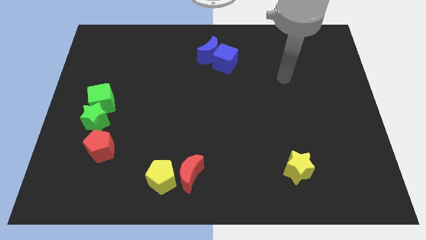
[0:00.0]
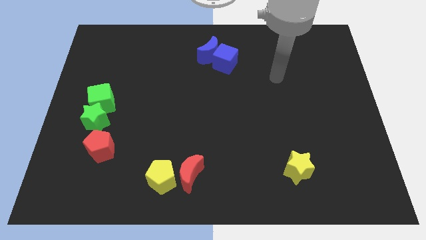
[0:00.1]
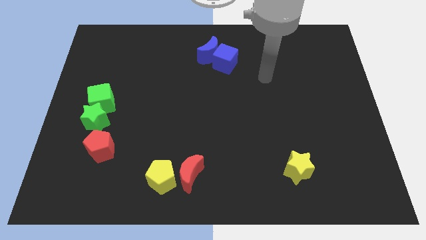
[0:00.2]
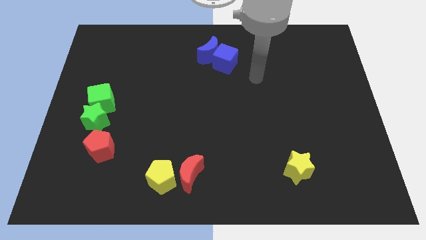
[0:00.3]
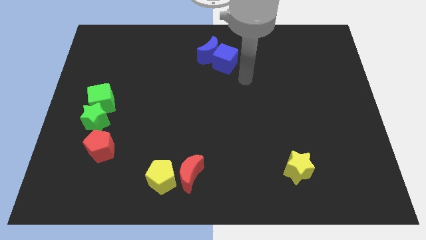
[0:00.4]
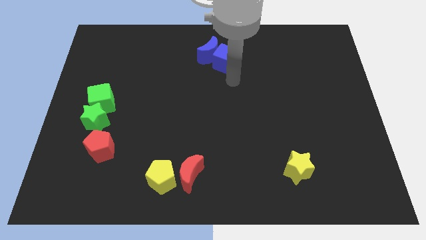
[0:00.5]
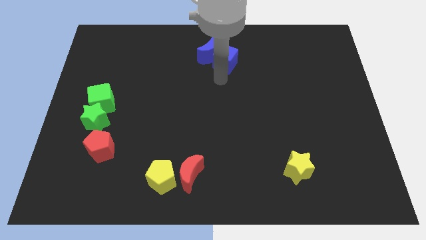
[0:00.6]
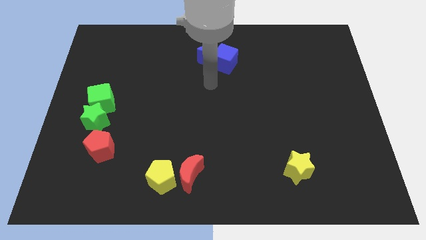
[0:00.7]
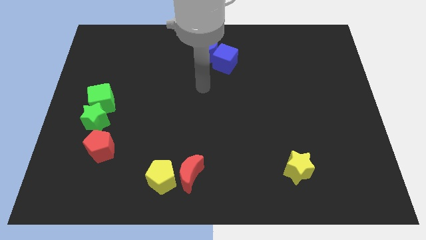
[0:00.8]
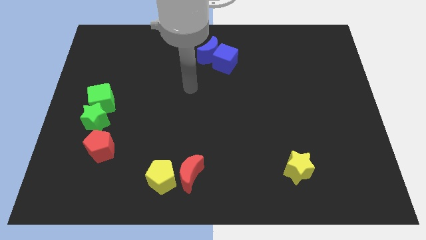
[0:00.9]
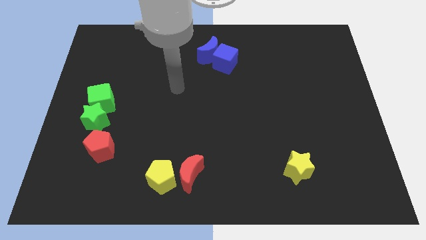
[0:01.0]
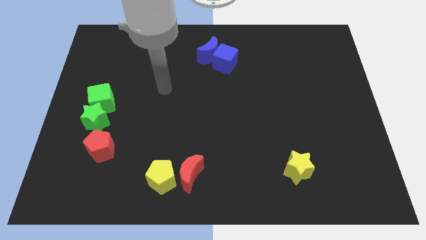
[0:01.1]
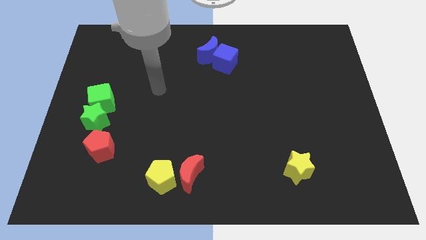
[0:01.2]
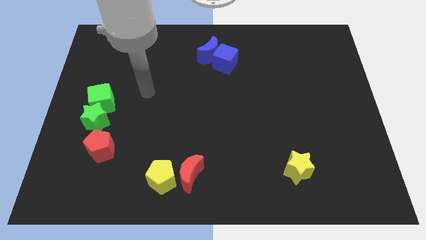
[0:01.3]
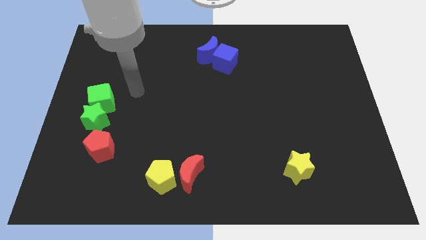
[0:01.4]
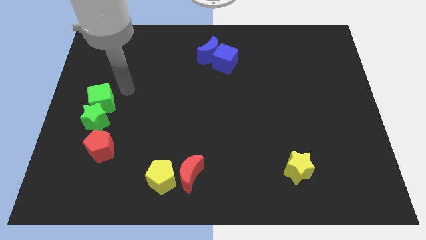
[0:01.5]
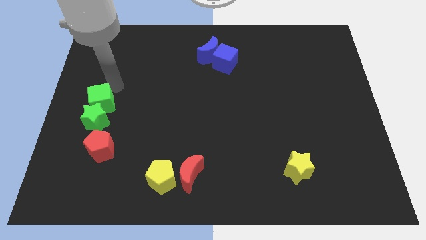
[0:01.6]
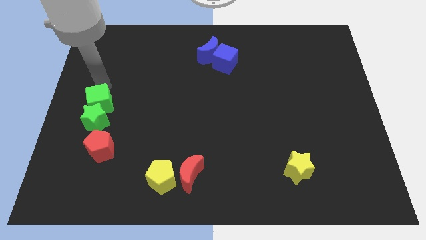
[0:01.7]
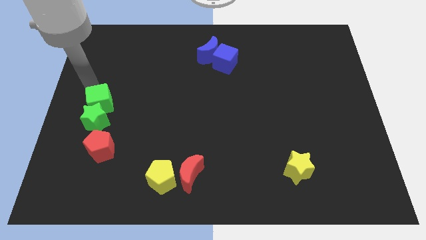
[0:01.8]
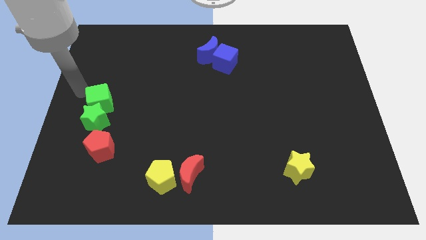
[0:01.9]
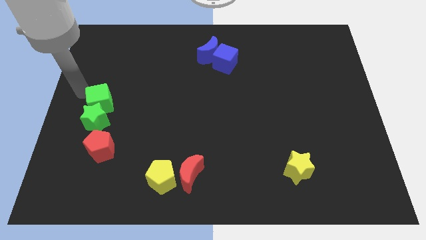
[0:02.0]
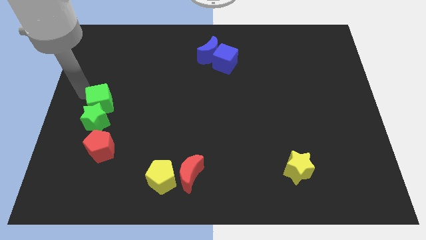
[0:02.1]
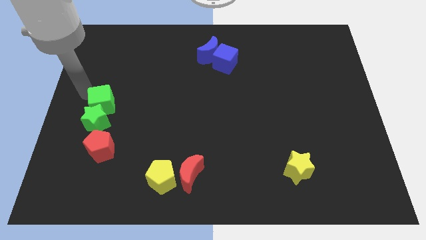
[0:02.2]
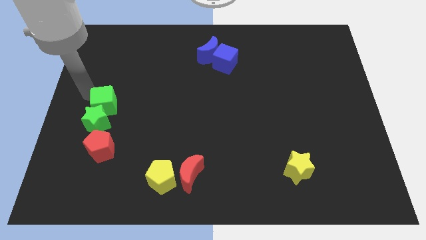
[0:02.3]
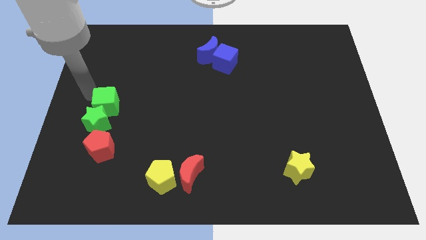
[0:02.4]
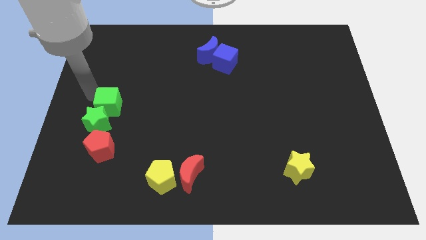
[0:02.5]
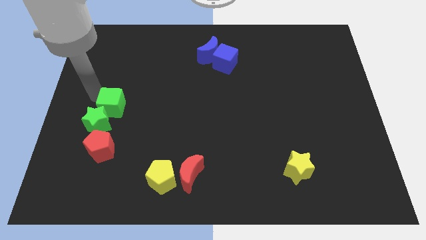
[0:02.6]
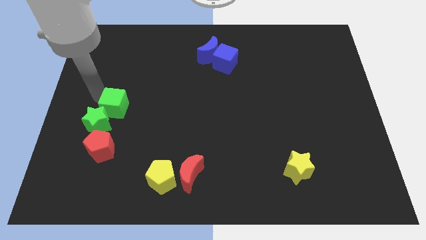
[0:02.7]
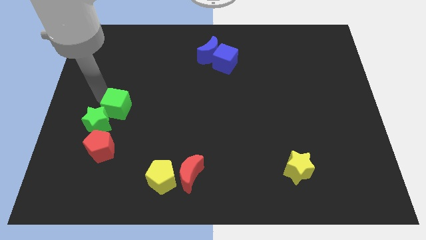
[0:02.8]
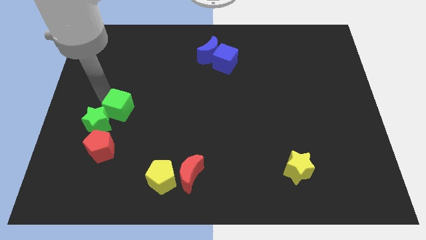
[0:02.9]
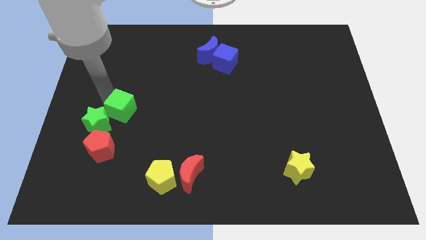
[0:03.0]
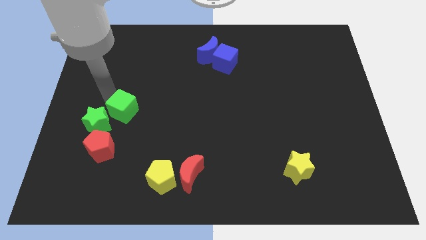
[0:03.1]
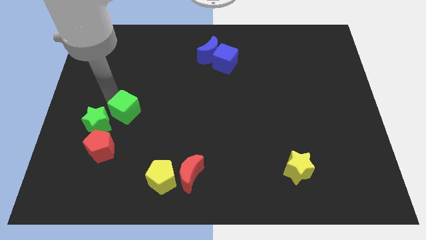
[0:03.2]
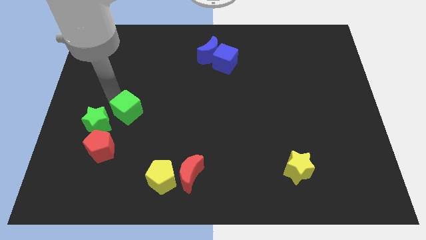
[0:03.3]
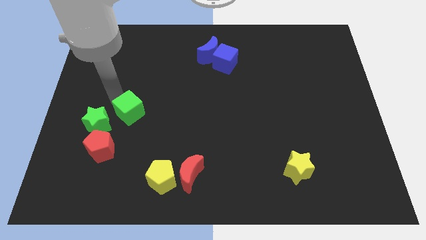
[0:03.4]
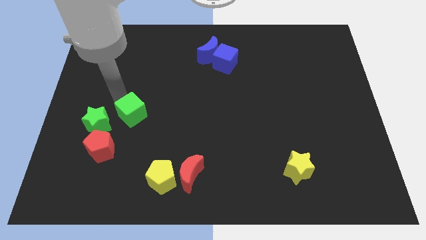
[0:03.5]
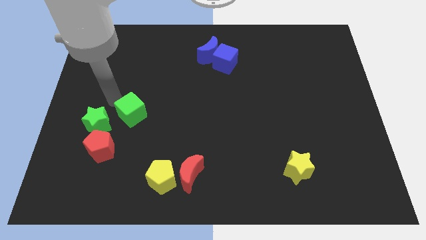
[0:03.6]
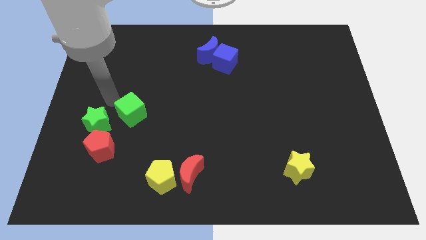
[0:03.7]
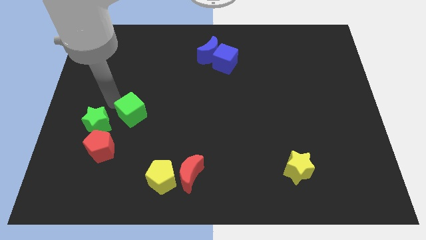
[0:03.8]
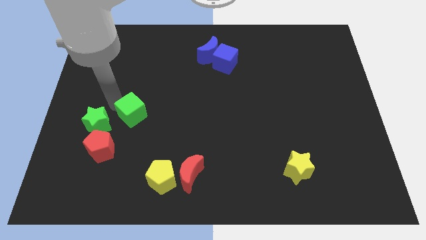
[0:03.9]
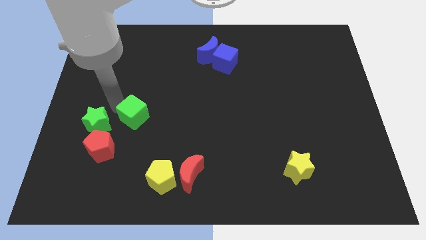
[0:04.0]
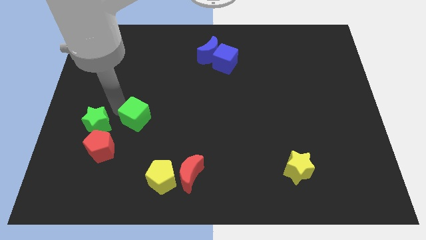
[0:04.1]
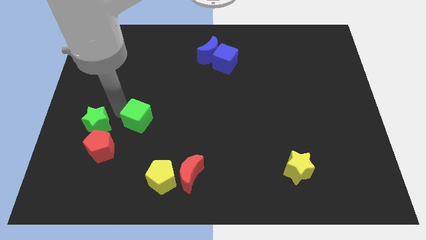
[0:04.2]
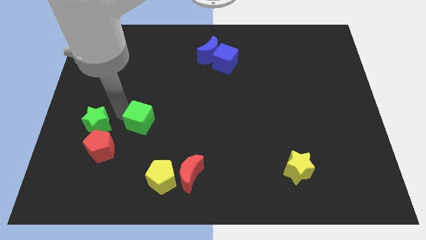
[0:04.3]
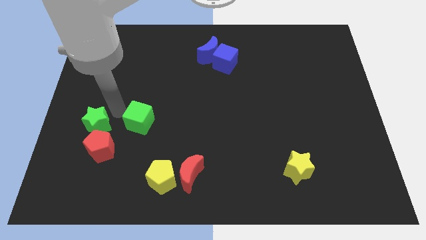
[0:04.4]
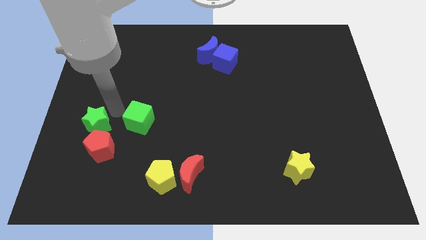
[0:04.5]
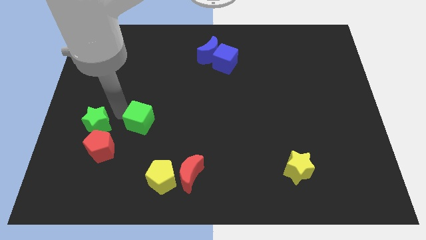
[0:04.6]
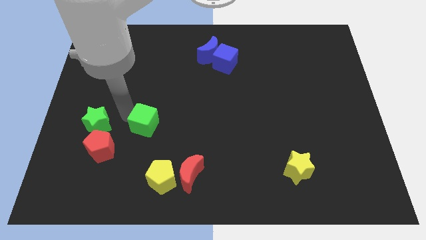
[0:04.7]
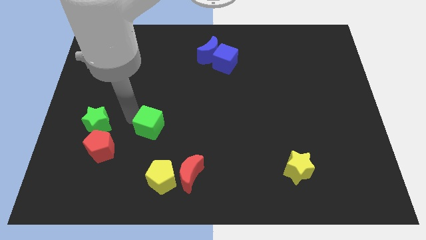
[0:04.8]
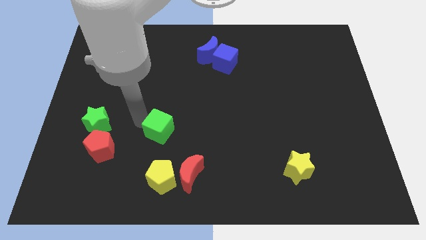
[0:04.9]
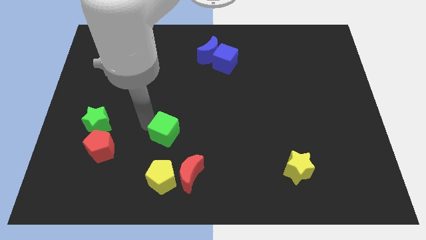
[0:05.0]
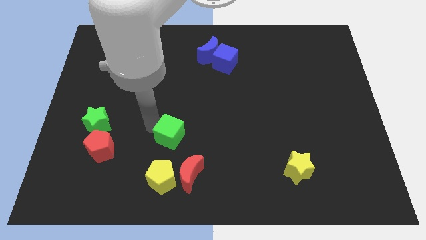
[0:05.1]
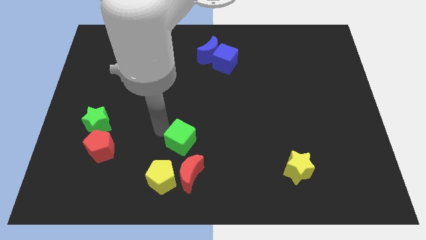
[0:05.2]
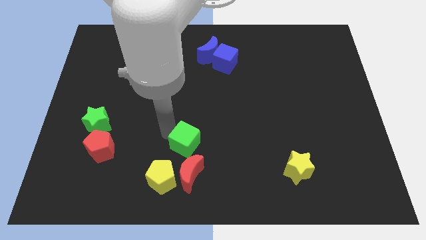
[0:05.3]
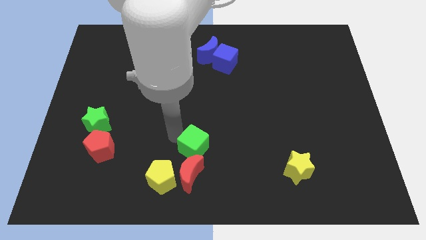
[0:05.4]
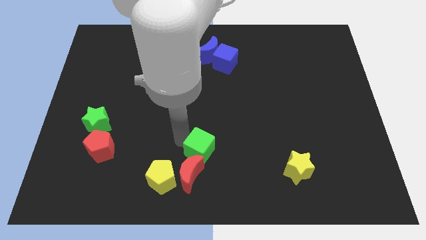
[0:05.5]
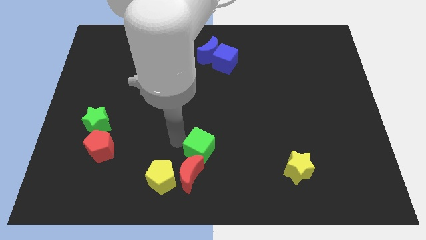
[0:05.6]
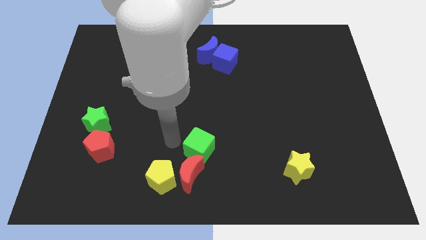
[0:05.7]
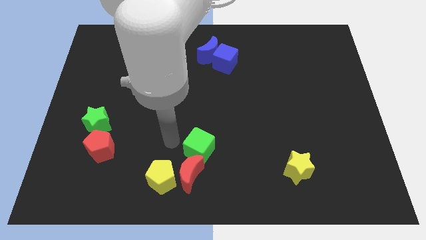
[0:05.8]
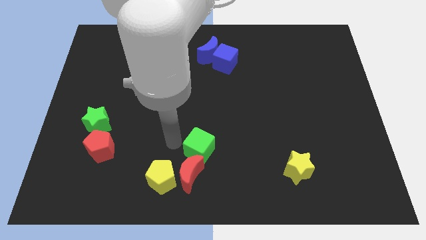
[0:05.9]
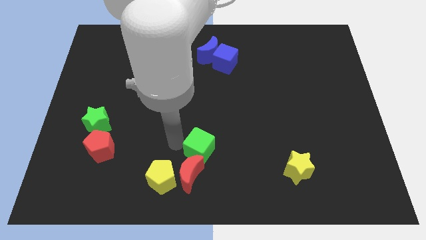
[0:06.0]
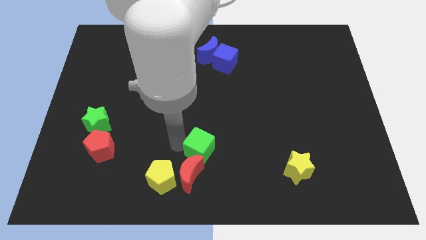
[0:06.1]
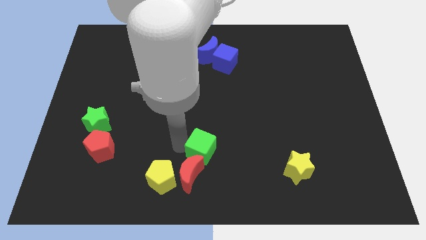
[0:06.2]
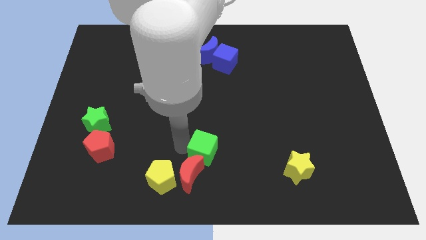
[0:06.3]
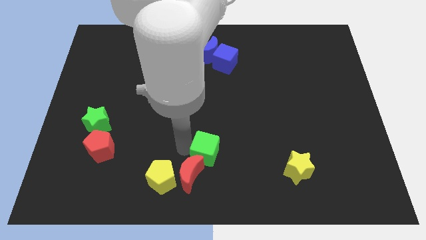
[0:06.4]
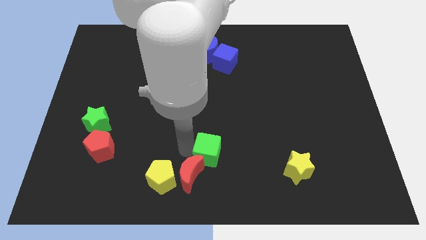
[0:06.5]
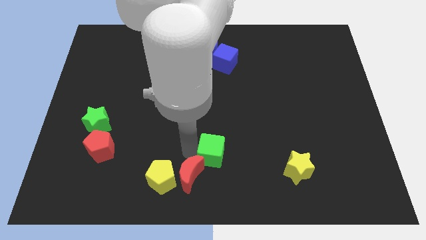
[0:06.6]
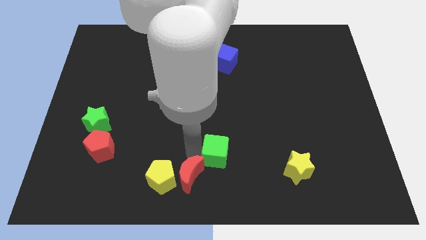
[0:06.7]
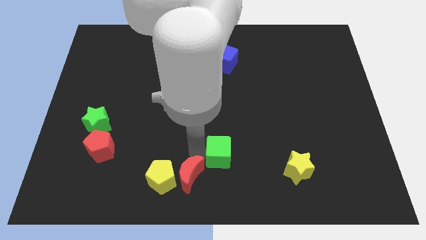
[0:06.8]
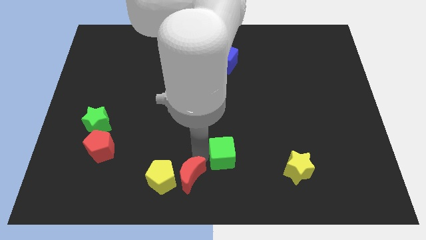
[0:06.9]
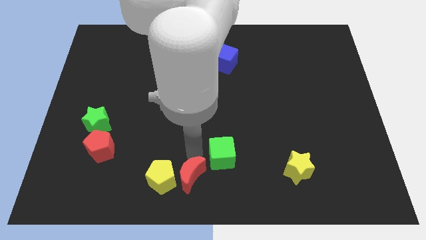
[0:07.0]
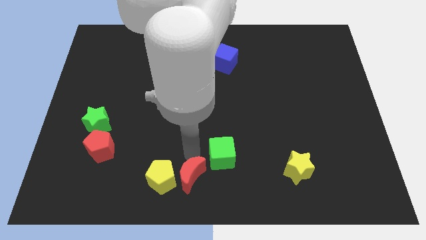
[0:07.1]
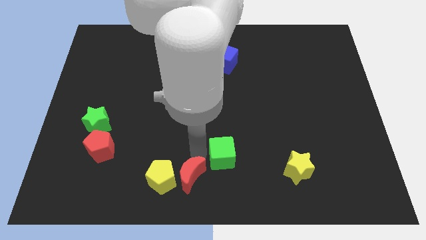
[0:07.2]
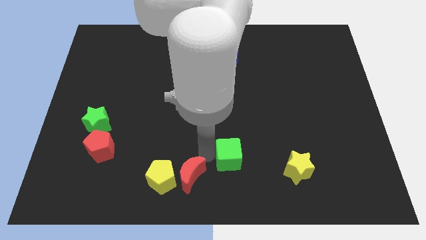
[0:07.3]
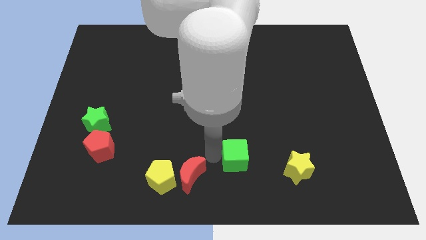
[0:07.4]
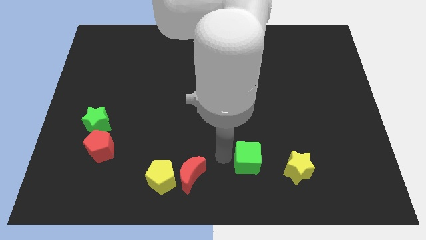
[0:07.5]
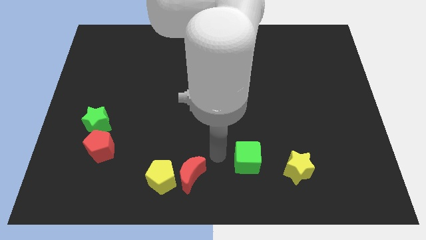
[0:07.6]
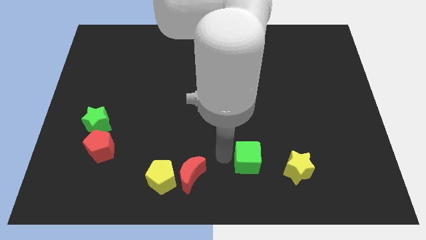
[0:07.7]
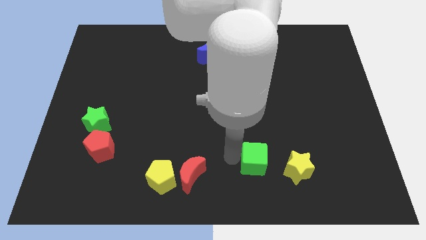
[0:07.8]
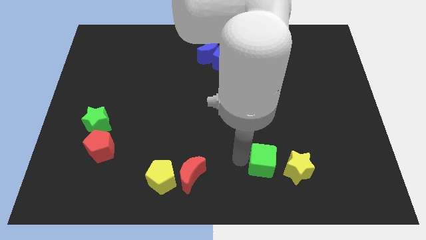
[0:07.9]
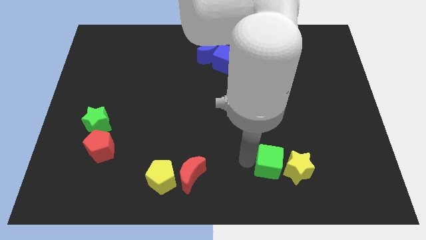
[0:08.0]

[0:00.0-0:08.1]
push the green cube next to the yellow star
